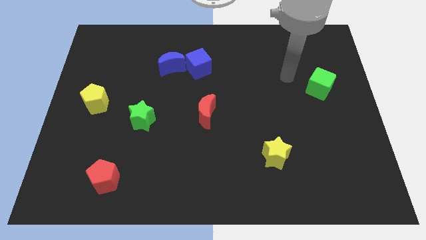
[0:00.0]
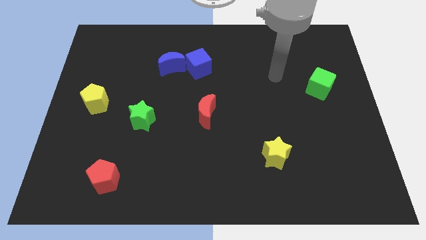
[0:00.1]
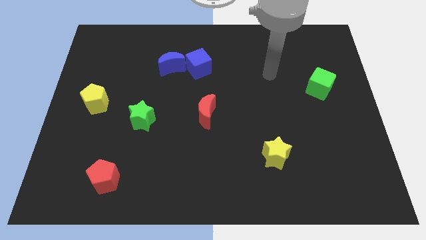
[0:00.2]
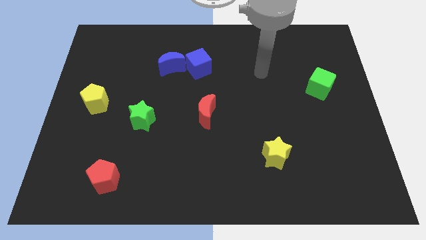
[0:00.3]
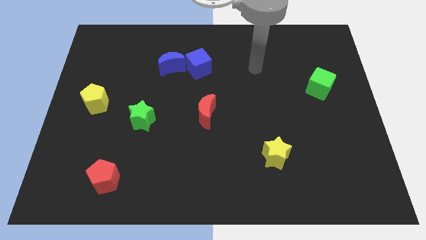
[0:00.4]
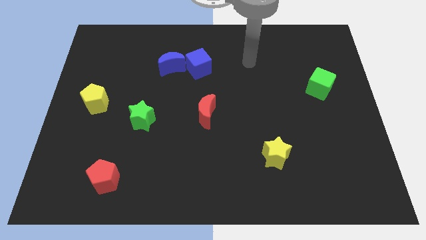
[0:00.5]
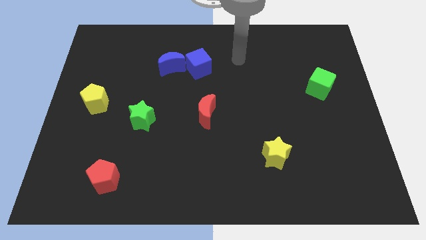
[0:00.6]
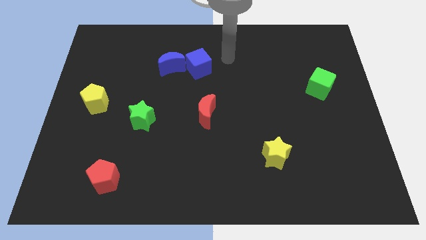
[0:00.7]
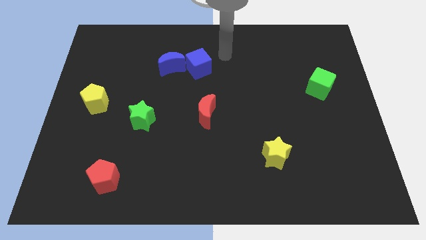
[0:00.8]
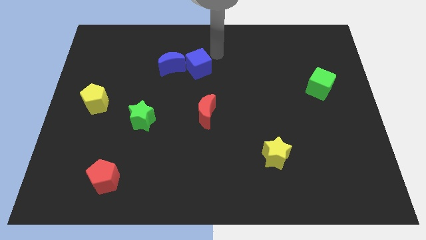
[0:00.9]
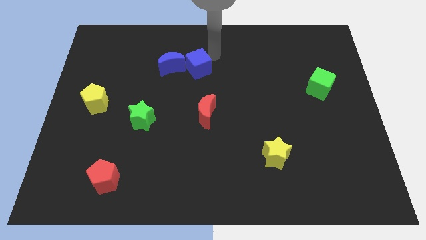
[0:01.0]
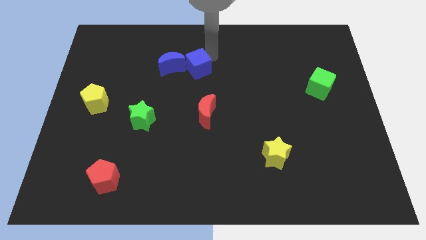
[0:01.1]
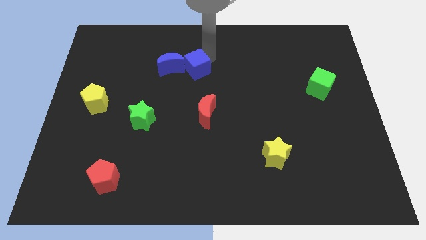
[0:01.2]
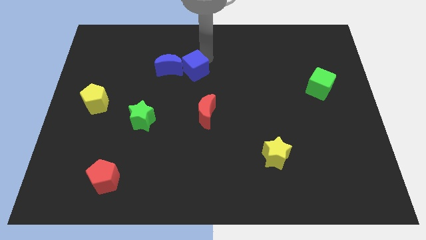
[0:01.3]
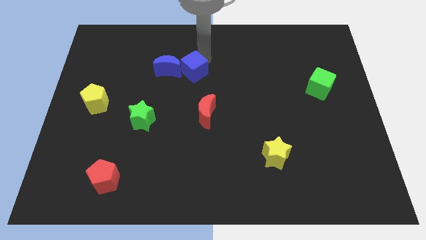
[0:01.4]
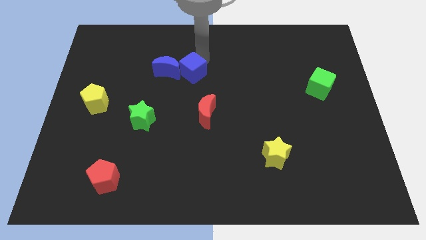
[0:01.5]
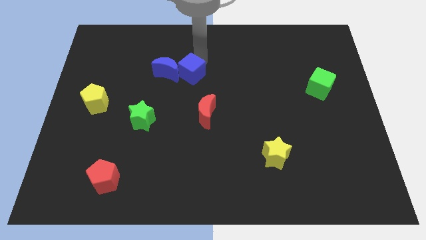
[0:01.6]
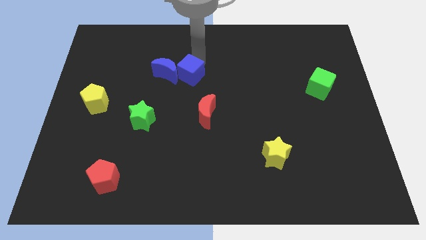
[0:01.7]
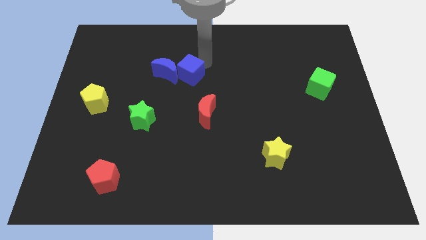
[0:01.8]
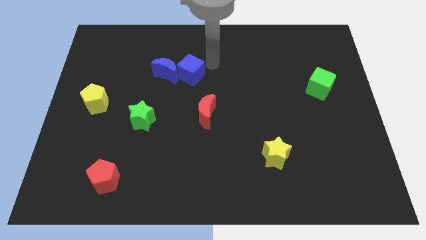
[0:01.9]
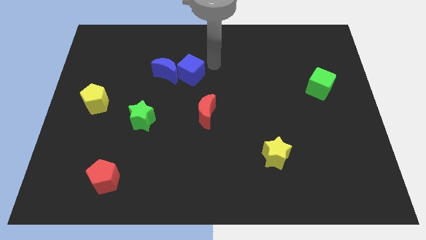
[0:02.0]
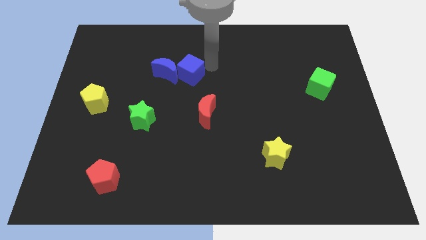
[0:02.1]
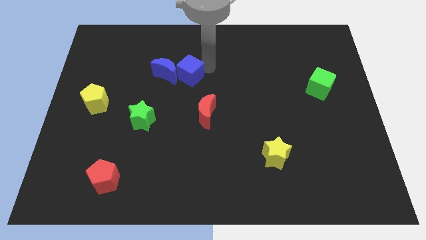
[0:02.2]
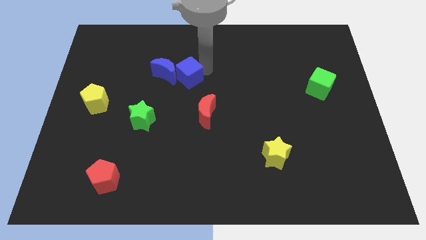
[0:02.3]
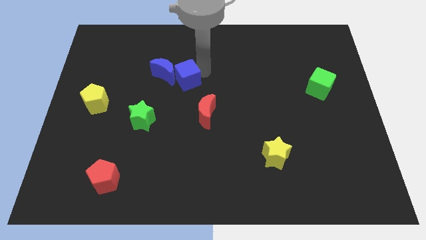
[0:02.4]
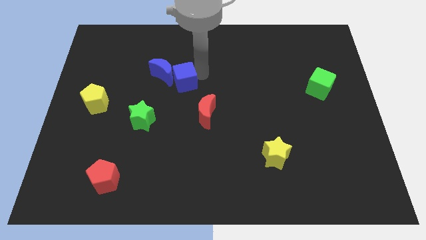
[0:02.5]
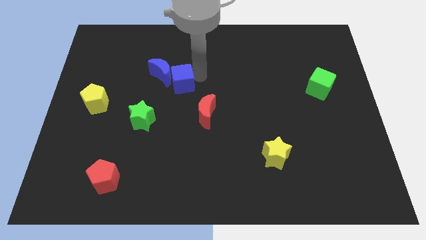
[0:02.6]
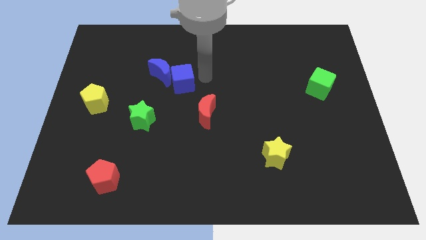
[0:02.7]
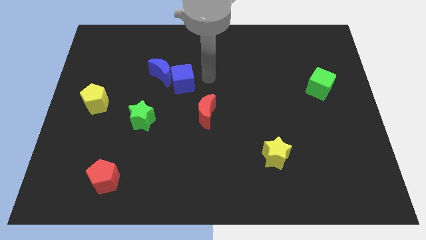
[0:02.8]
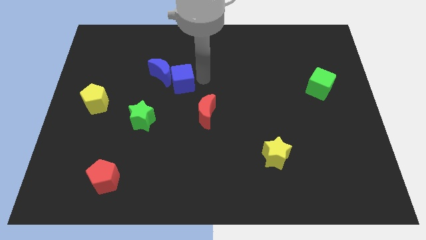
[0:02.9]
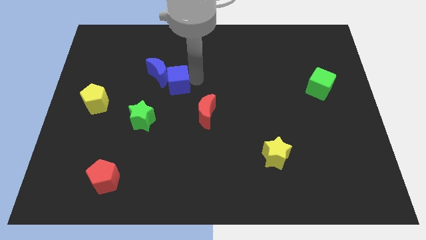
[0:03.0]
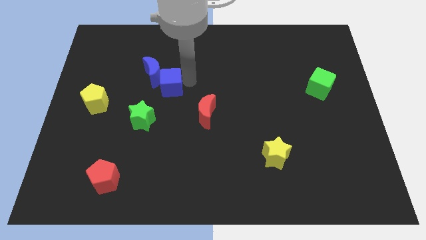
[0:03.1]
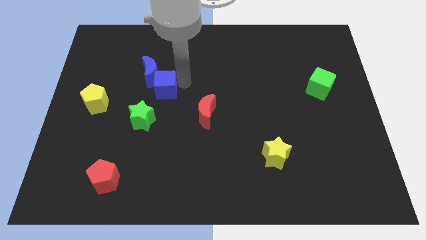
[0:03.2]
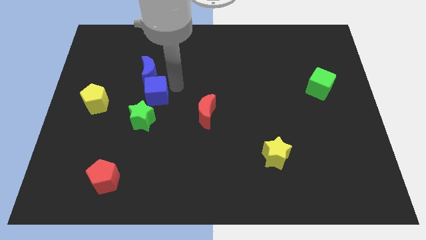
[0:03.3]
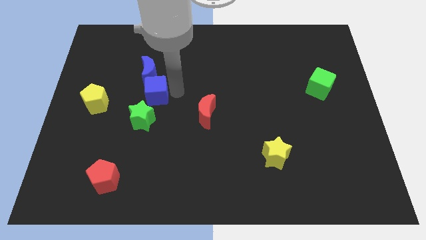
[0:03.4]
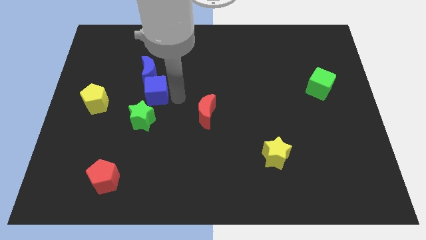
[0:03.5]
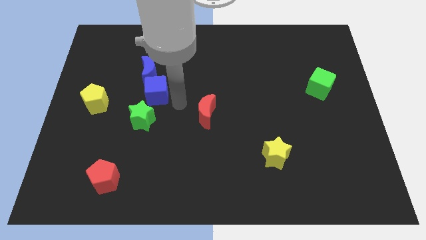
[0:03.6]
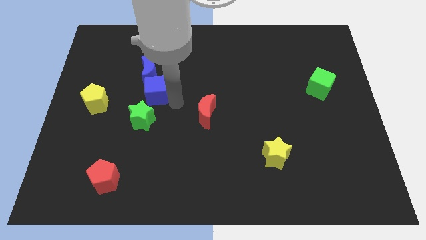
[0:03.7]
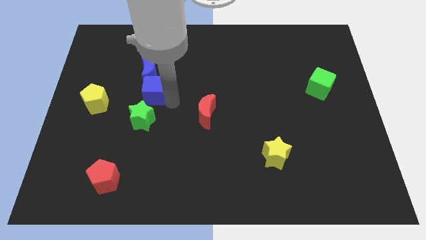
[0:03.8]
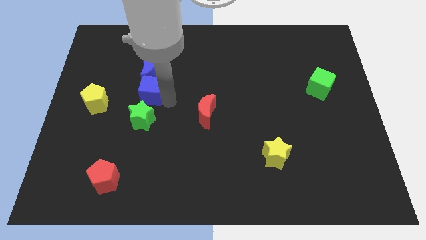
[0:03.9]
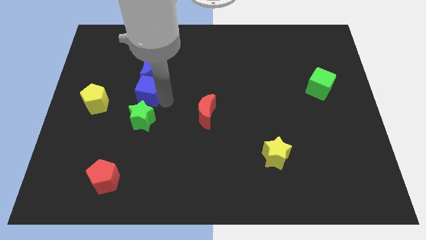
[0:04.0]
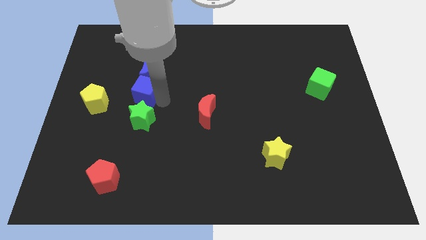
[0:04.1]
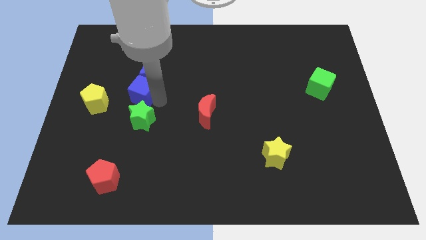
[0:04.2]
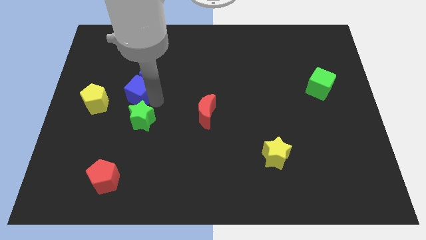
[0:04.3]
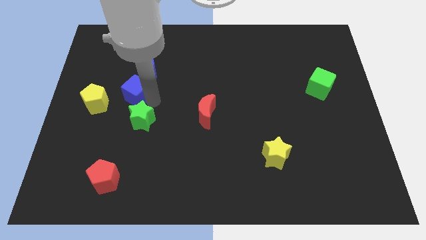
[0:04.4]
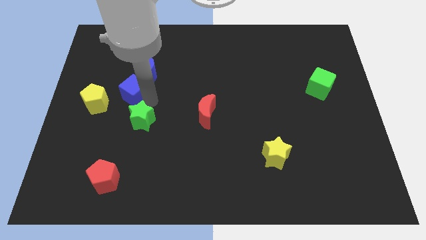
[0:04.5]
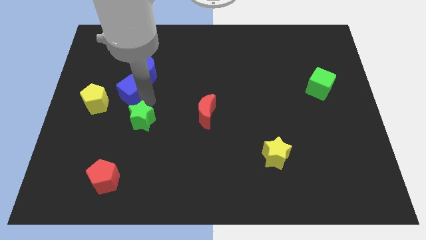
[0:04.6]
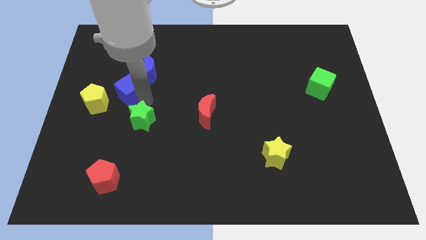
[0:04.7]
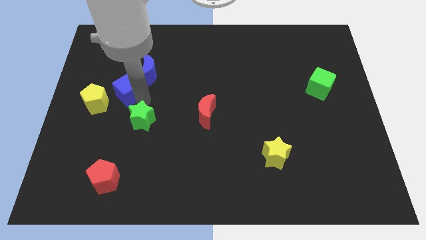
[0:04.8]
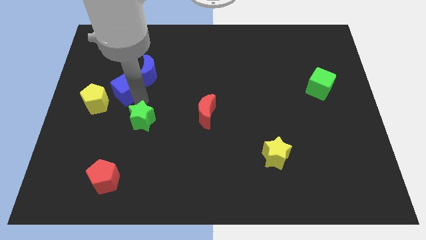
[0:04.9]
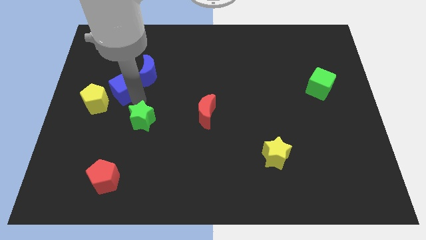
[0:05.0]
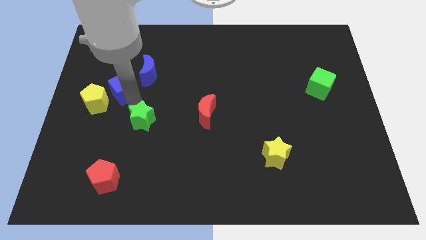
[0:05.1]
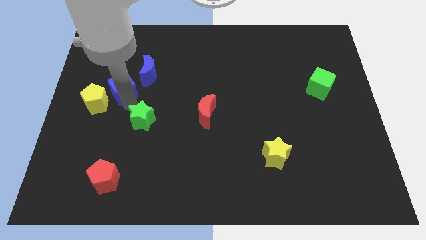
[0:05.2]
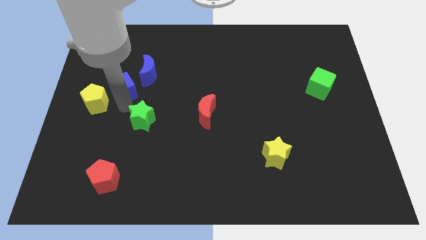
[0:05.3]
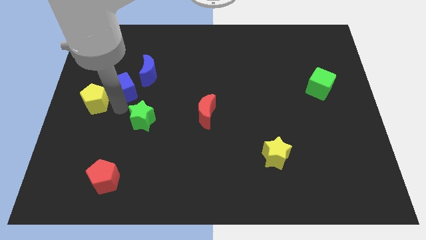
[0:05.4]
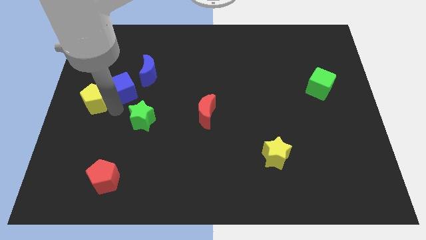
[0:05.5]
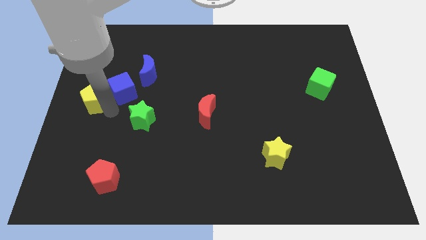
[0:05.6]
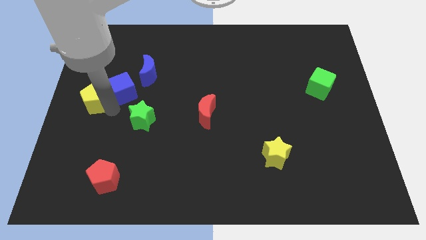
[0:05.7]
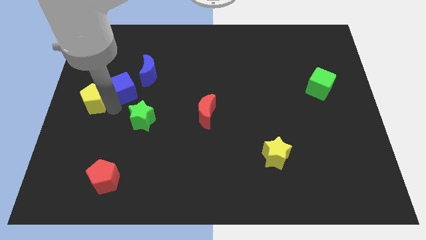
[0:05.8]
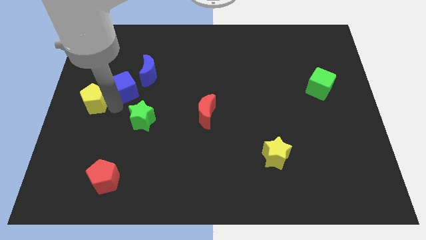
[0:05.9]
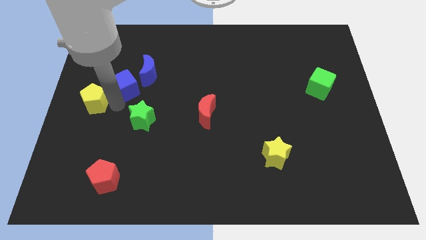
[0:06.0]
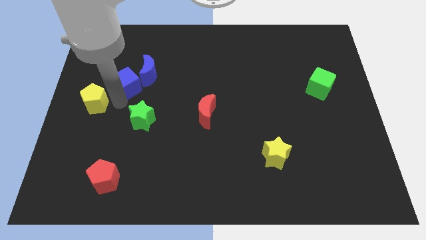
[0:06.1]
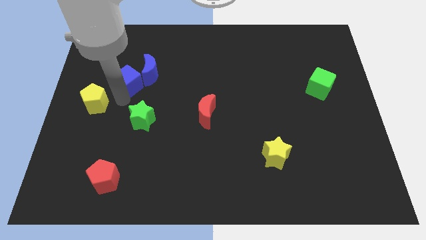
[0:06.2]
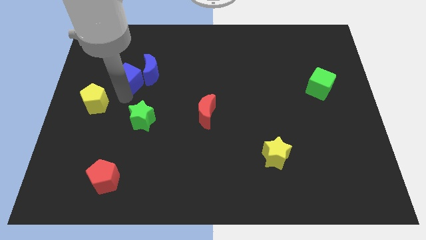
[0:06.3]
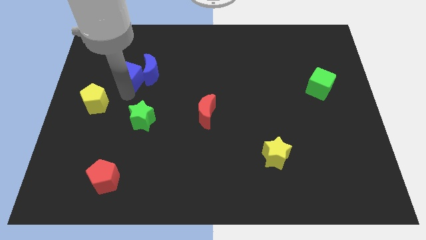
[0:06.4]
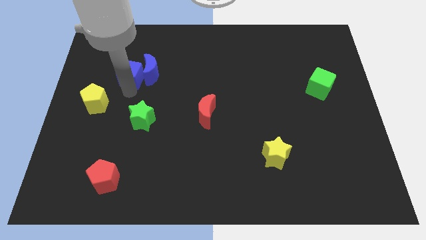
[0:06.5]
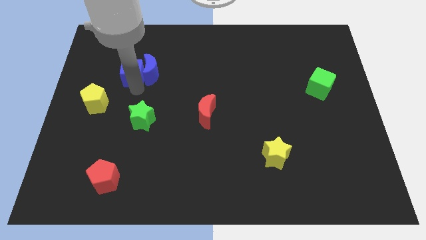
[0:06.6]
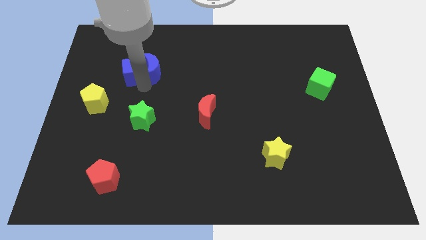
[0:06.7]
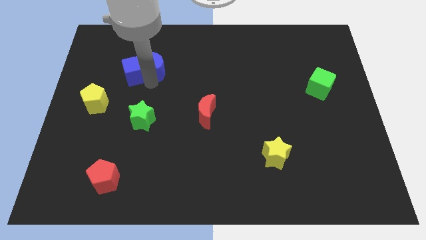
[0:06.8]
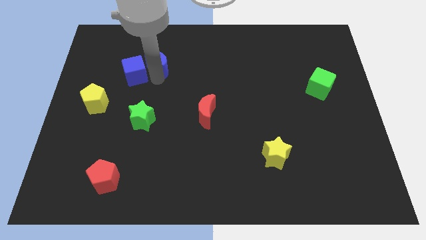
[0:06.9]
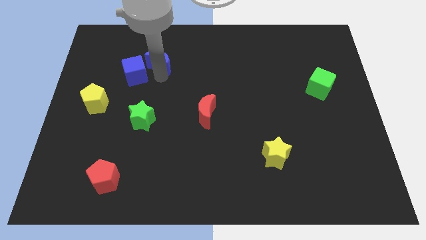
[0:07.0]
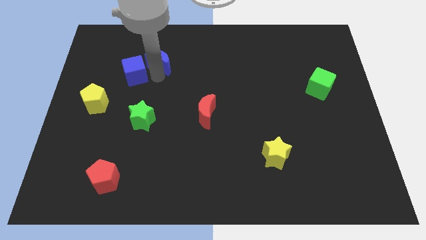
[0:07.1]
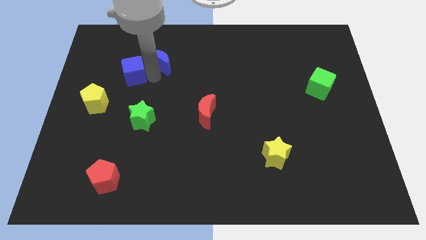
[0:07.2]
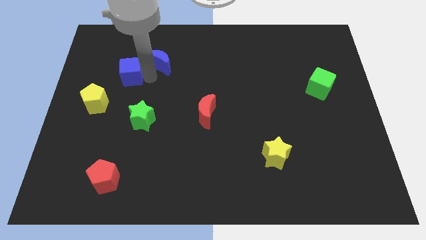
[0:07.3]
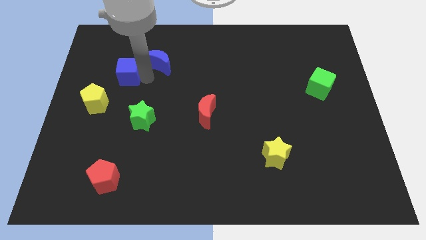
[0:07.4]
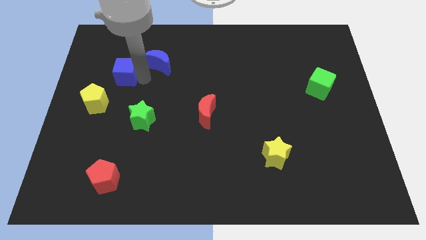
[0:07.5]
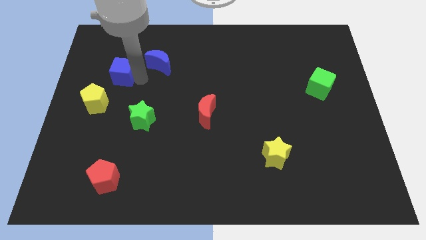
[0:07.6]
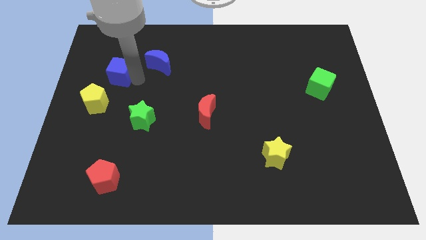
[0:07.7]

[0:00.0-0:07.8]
push the blue cube to the top side of the yellow pentagon
